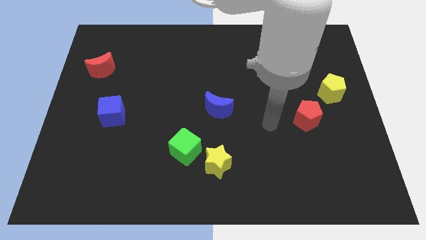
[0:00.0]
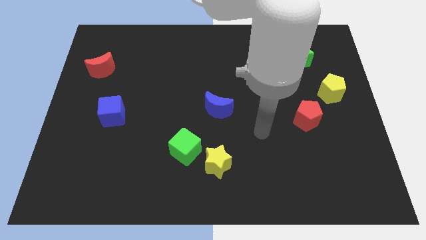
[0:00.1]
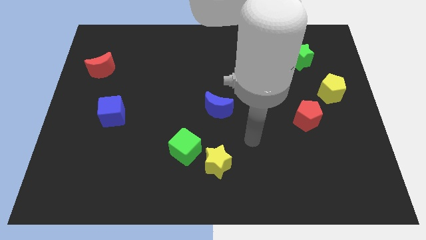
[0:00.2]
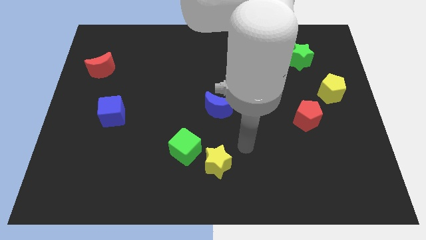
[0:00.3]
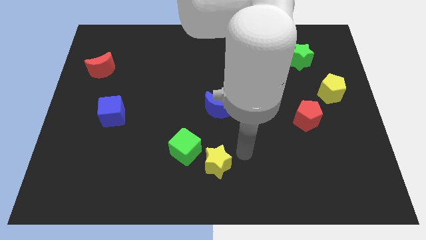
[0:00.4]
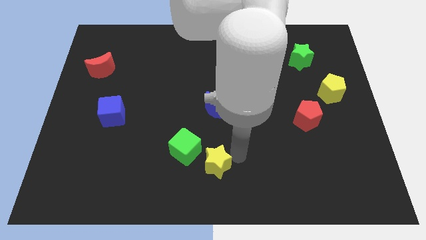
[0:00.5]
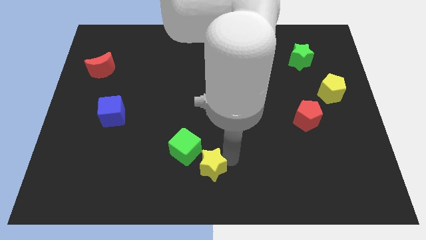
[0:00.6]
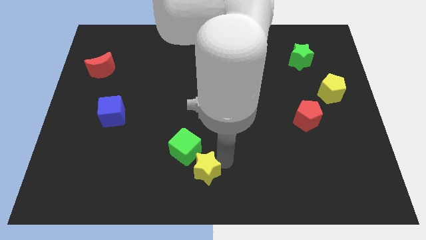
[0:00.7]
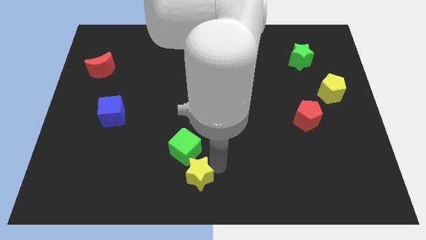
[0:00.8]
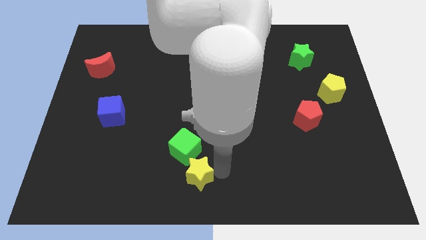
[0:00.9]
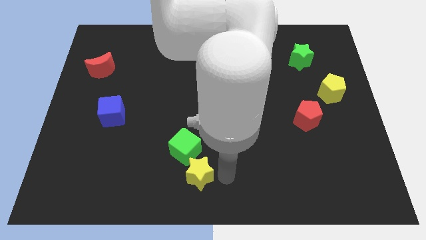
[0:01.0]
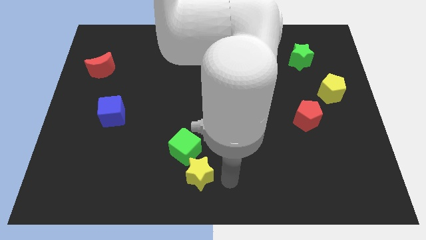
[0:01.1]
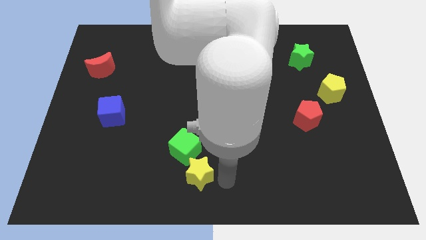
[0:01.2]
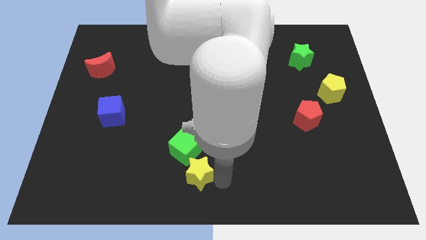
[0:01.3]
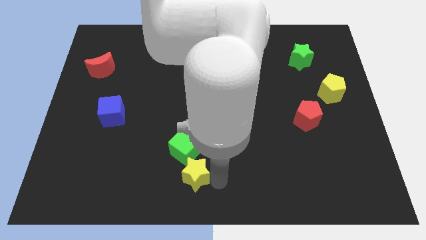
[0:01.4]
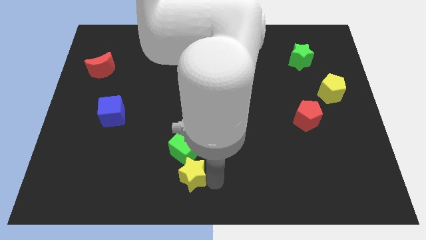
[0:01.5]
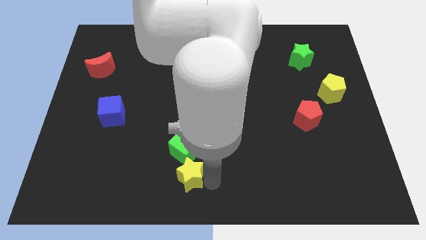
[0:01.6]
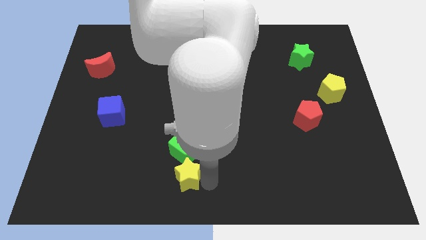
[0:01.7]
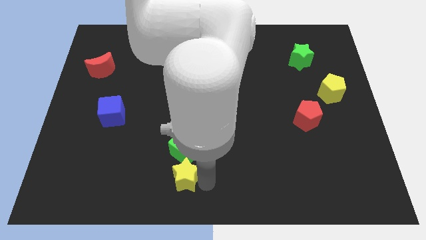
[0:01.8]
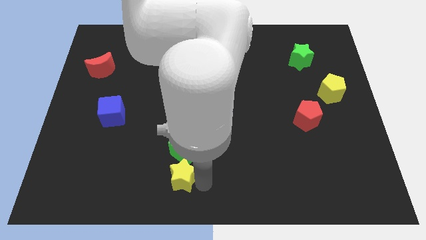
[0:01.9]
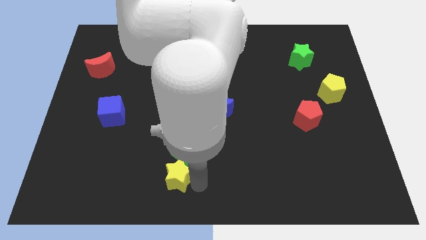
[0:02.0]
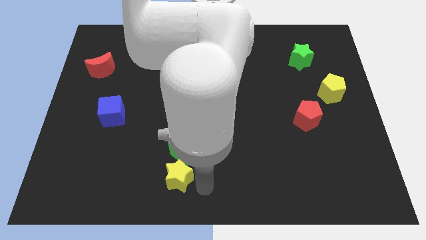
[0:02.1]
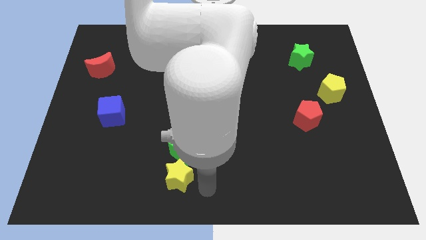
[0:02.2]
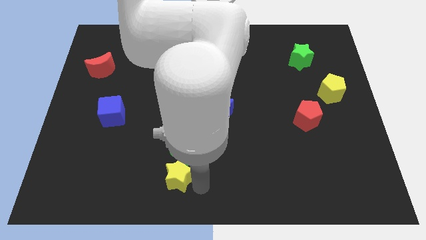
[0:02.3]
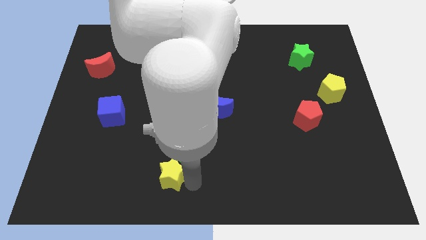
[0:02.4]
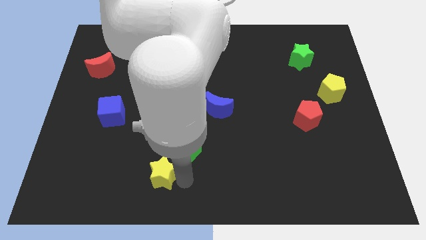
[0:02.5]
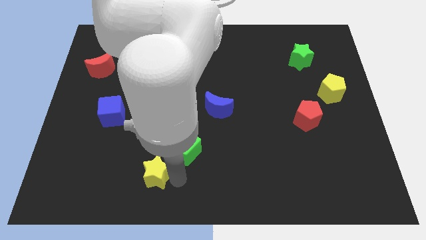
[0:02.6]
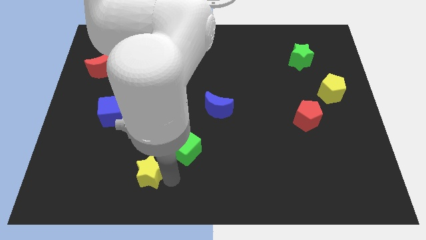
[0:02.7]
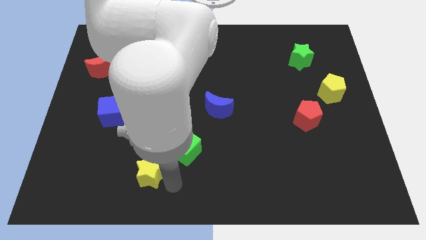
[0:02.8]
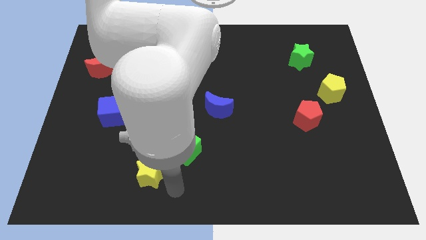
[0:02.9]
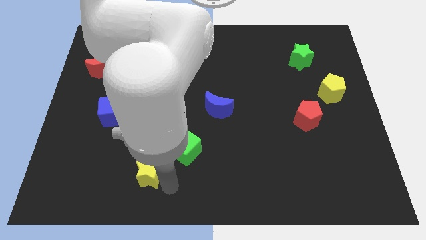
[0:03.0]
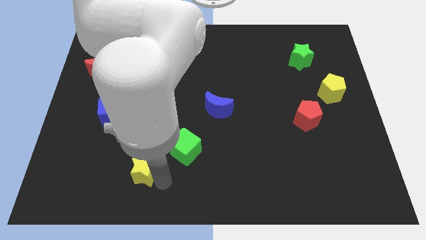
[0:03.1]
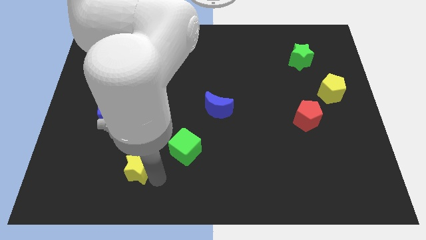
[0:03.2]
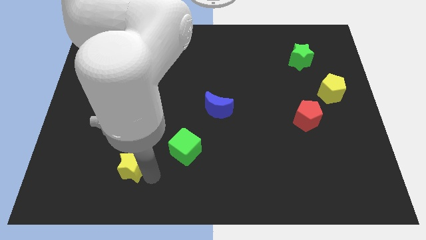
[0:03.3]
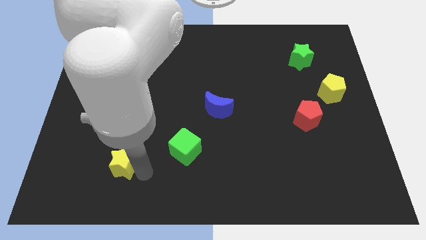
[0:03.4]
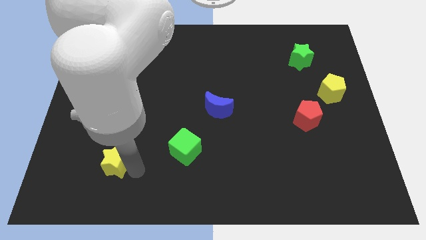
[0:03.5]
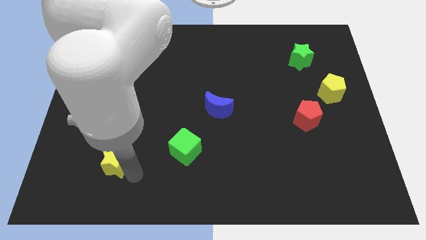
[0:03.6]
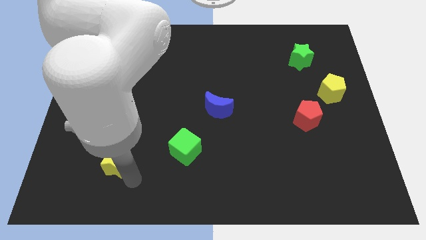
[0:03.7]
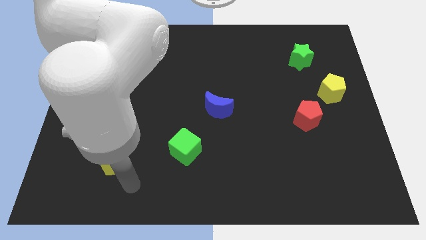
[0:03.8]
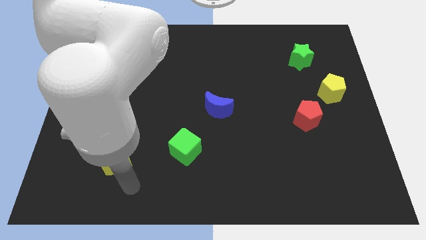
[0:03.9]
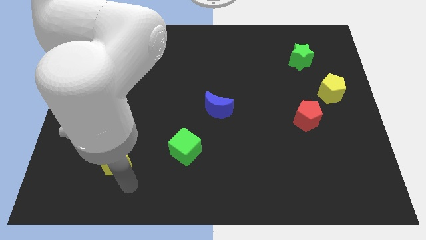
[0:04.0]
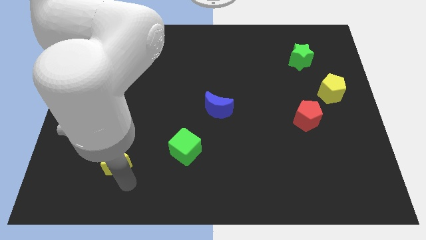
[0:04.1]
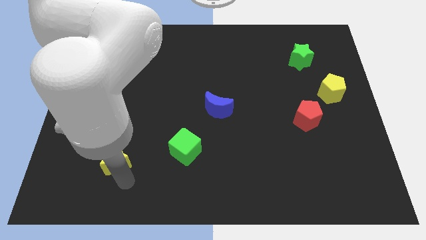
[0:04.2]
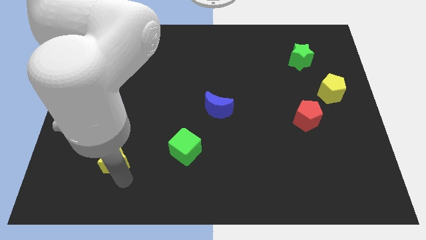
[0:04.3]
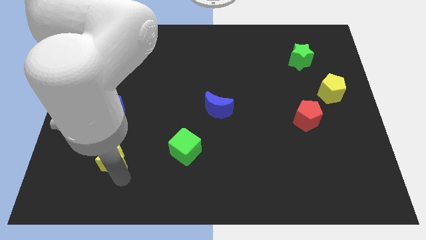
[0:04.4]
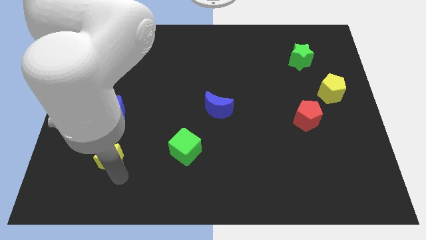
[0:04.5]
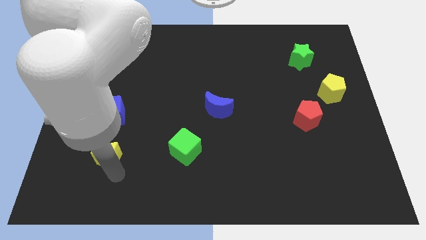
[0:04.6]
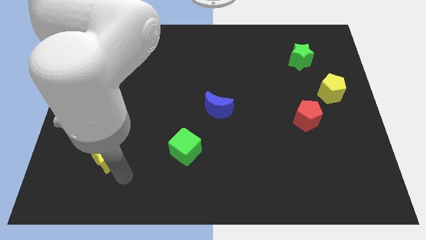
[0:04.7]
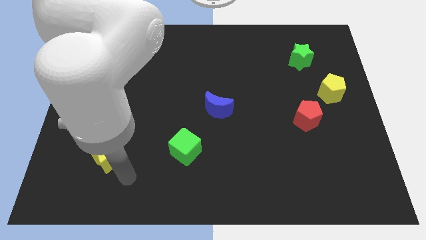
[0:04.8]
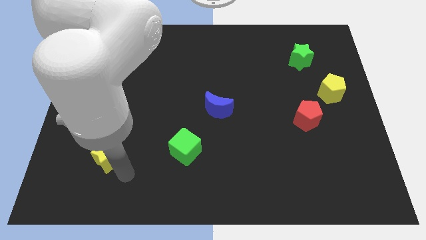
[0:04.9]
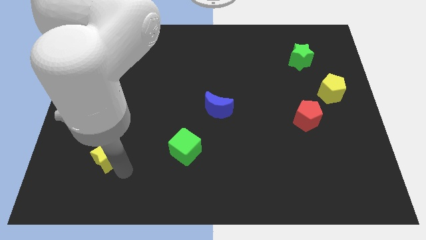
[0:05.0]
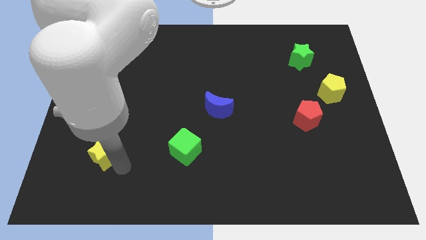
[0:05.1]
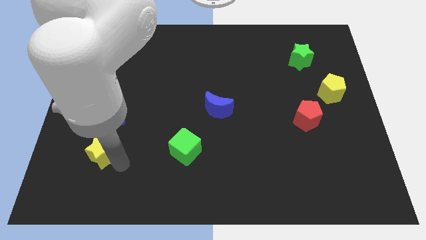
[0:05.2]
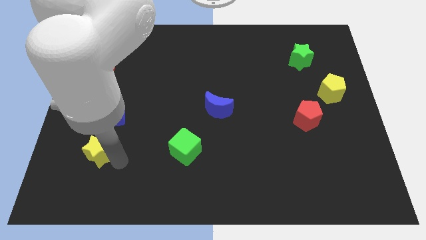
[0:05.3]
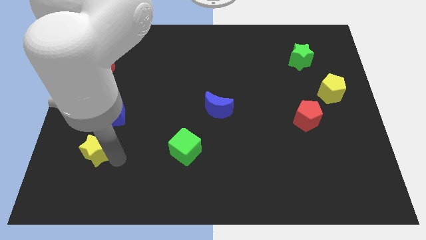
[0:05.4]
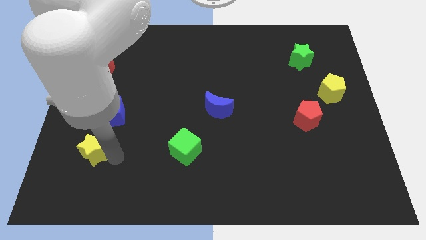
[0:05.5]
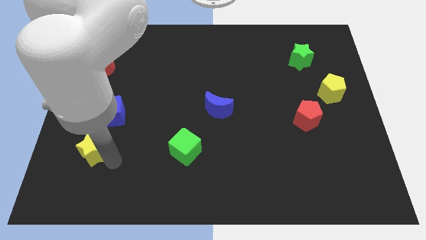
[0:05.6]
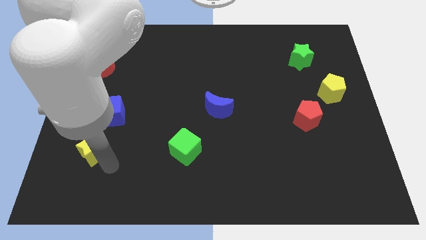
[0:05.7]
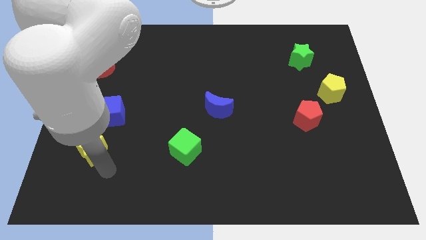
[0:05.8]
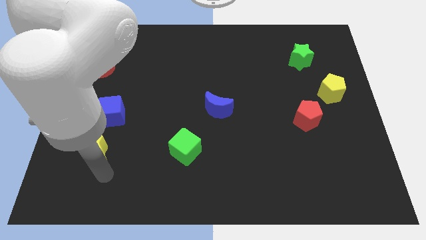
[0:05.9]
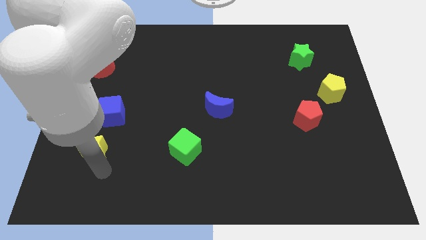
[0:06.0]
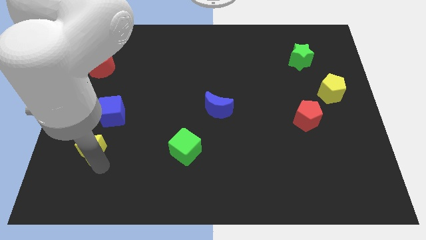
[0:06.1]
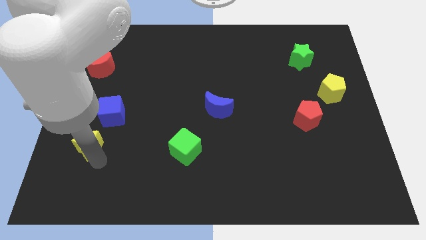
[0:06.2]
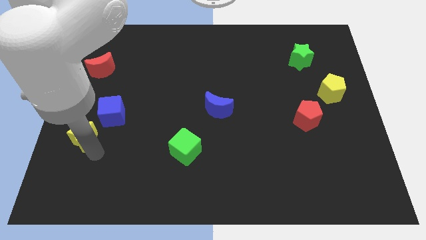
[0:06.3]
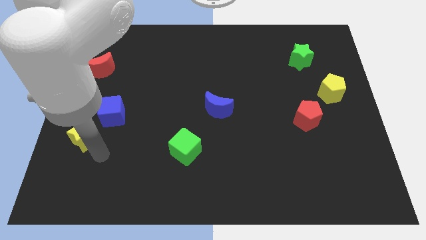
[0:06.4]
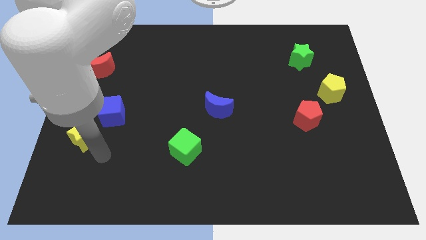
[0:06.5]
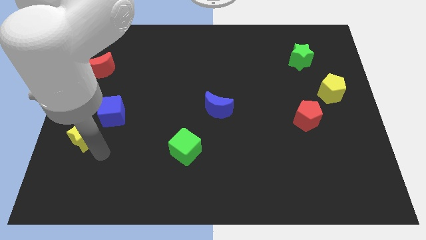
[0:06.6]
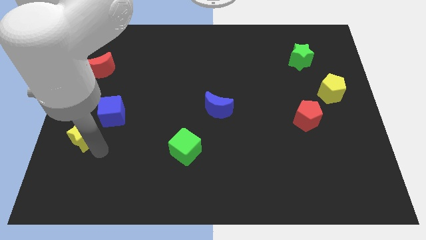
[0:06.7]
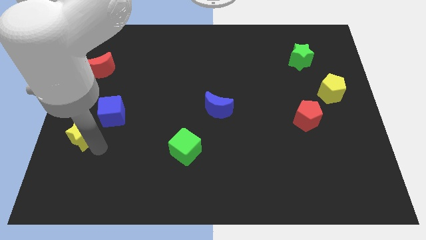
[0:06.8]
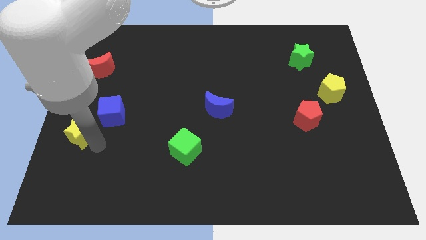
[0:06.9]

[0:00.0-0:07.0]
move the yellow star to the left side
